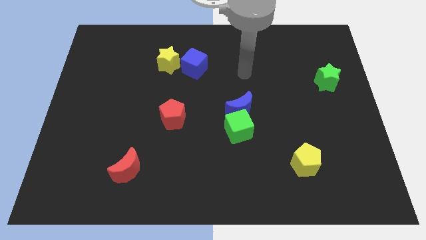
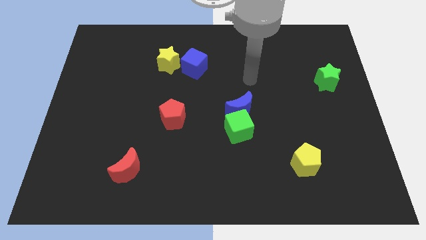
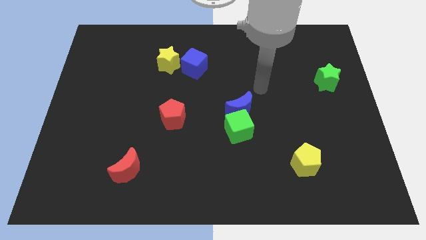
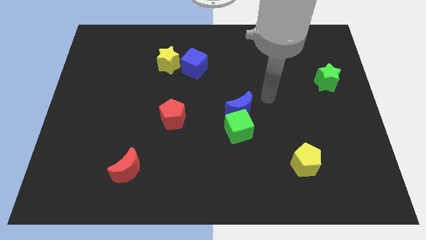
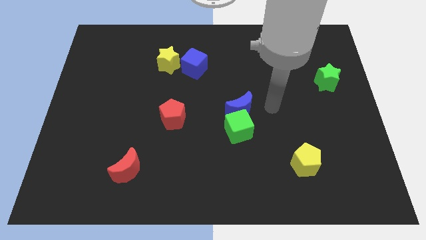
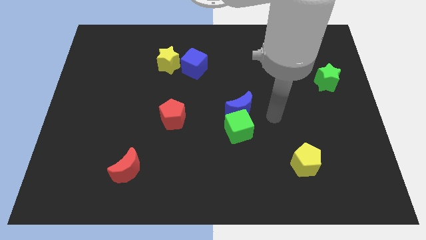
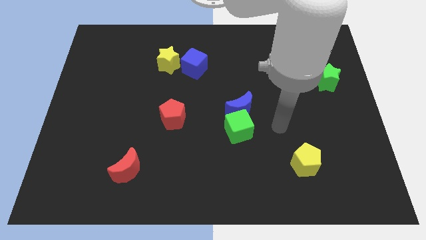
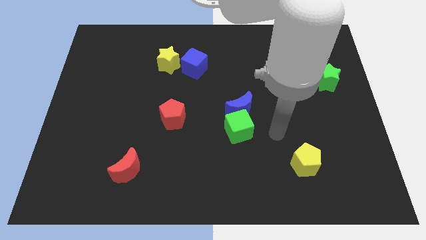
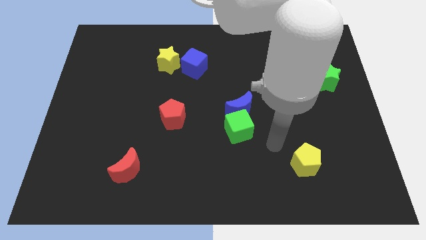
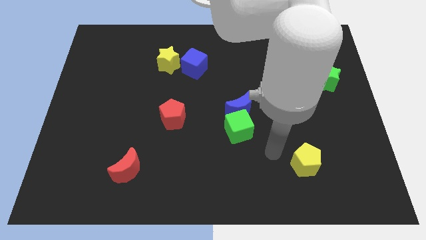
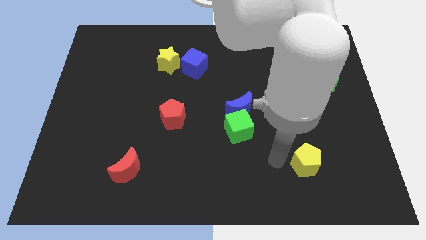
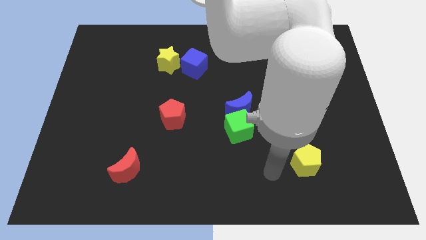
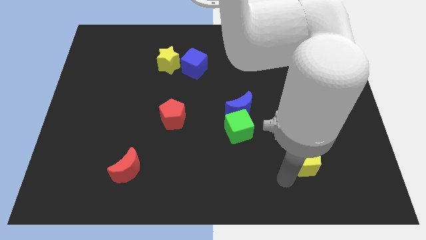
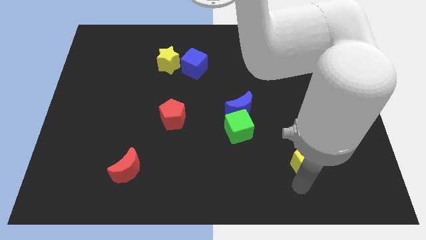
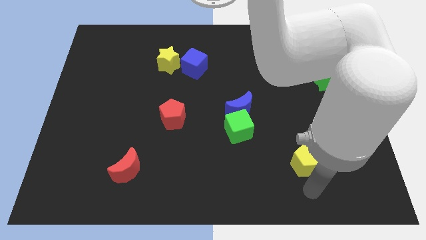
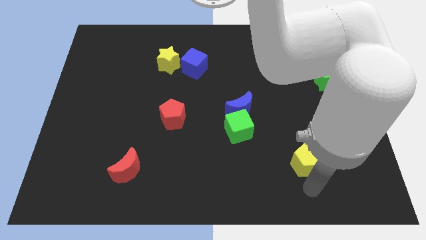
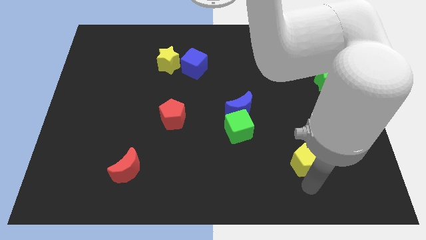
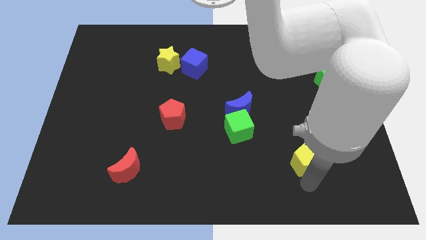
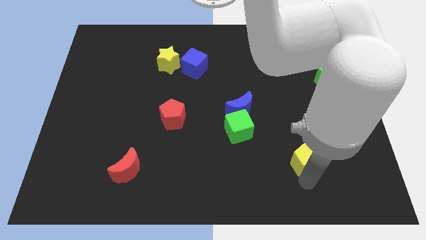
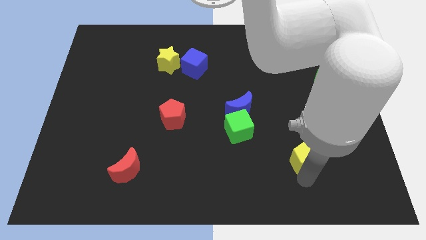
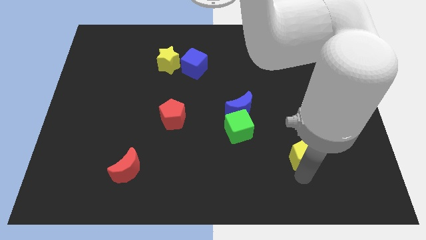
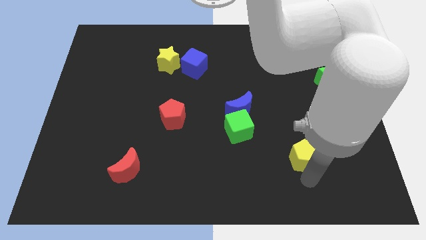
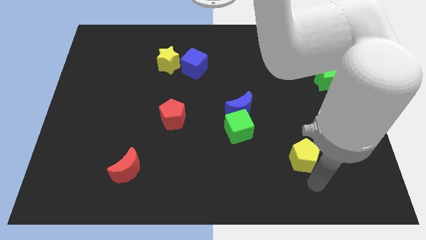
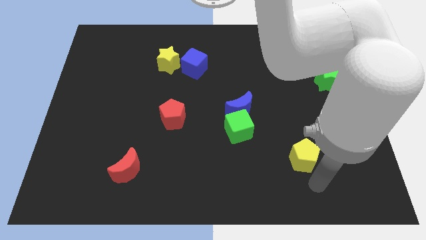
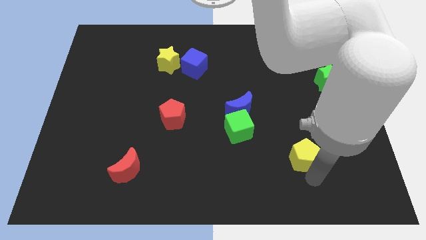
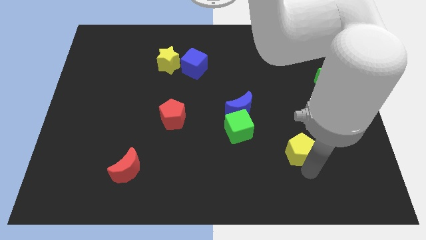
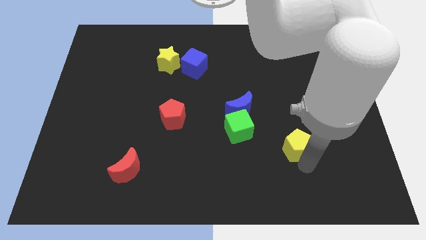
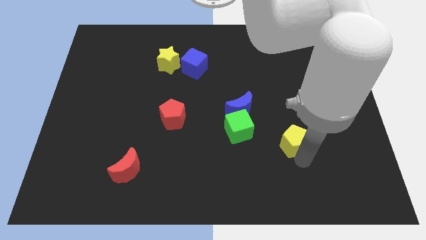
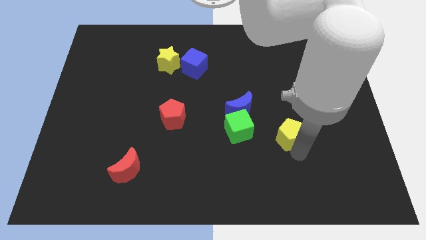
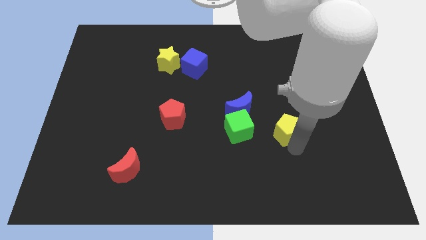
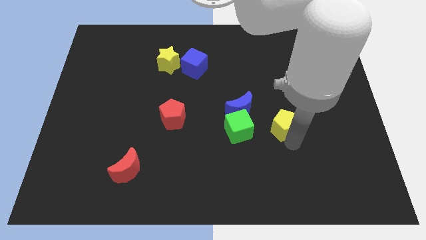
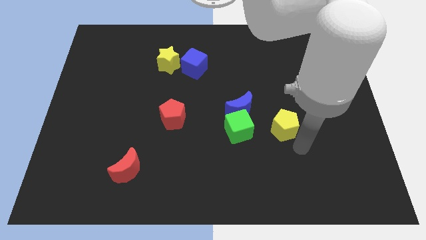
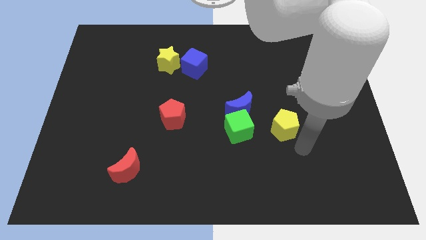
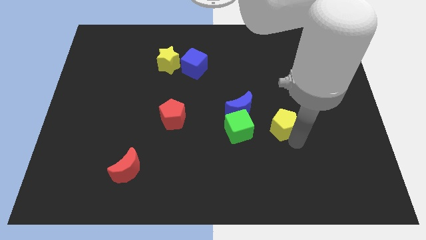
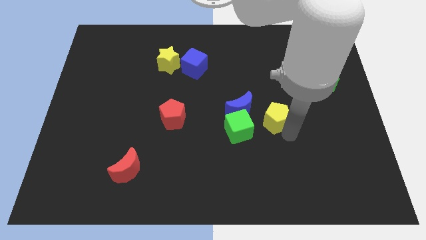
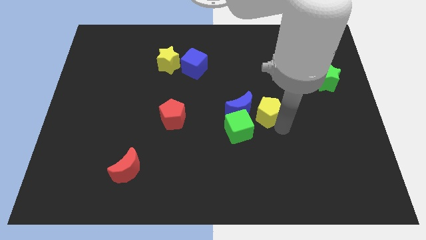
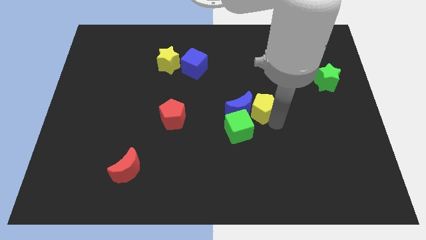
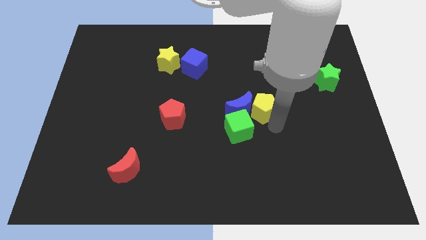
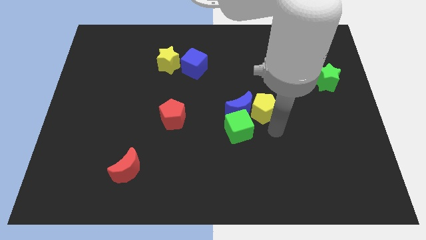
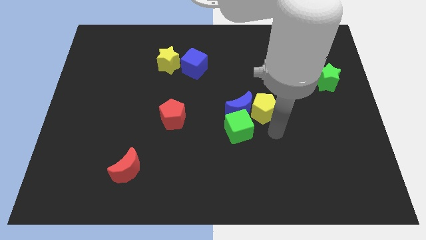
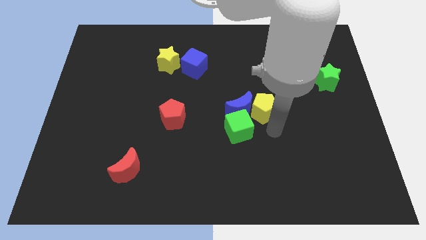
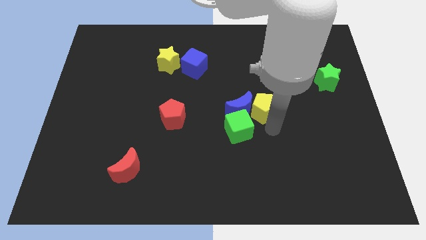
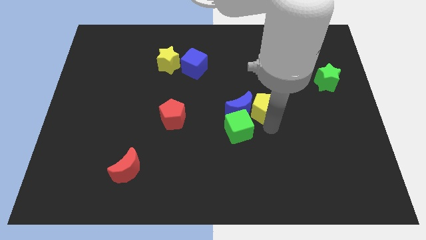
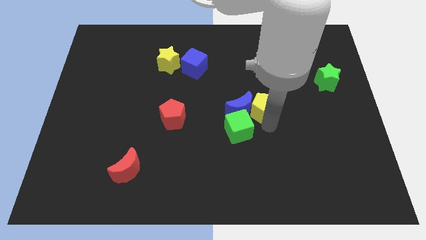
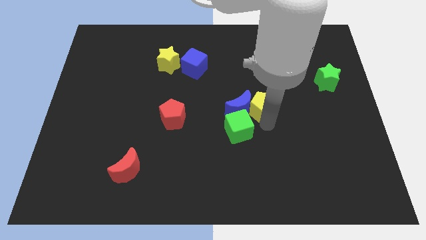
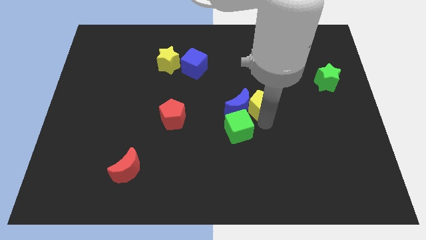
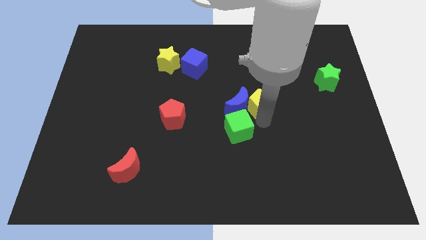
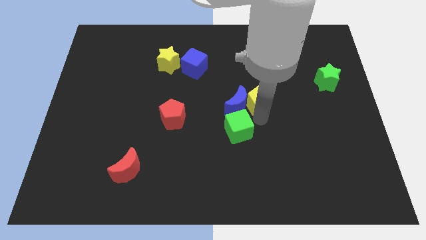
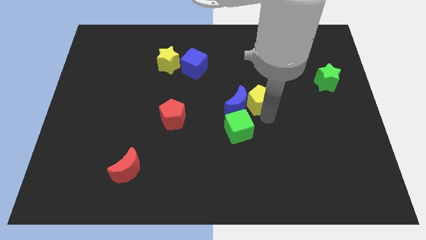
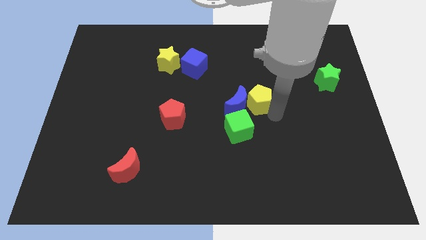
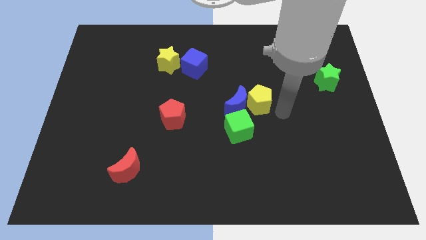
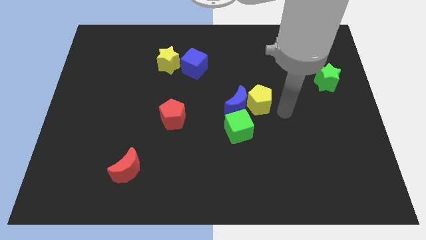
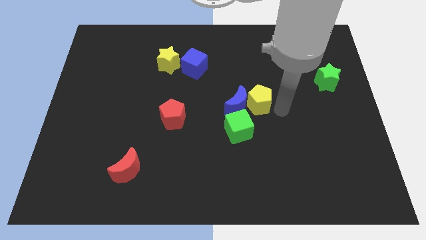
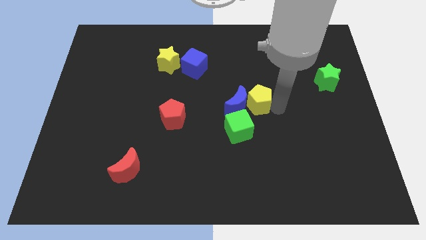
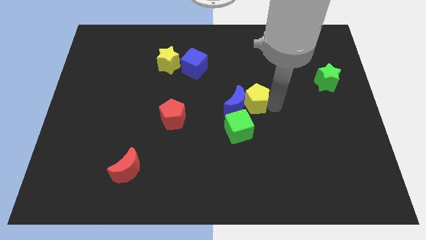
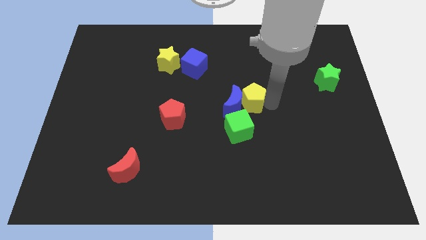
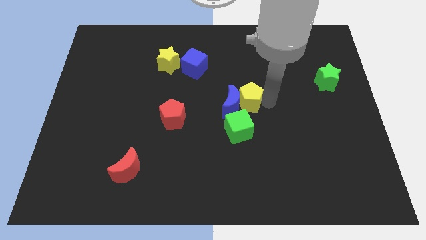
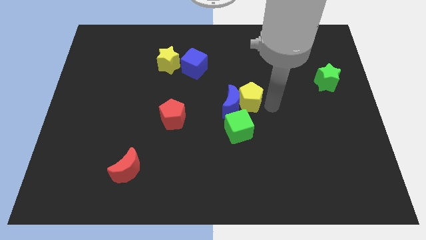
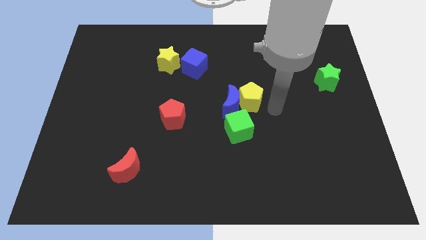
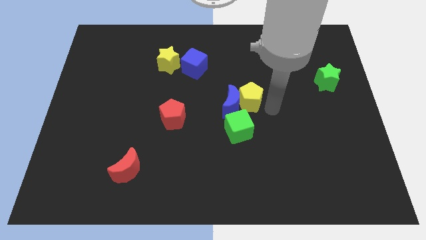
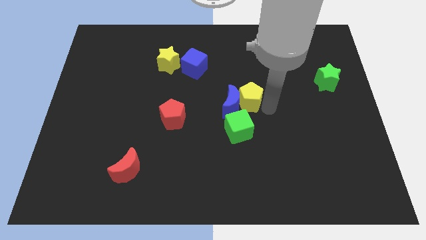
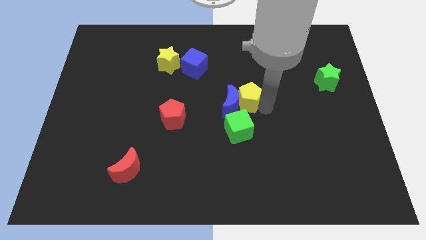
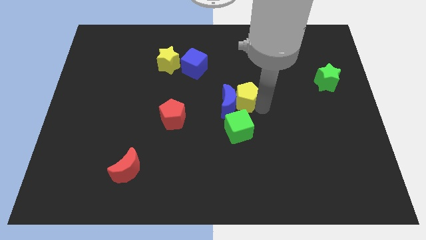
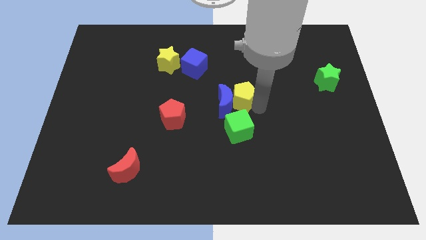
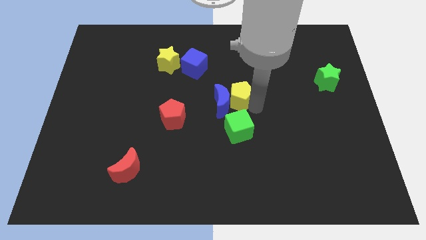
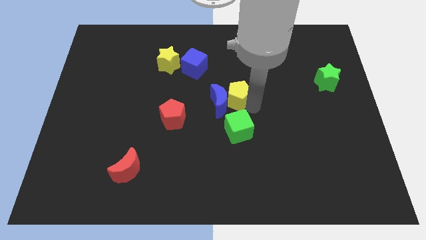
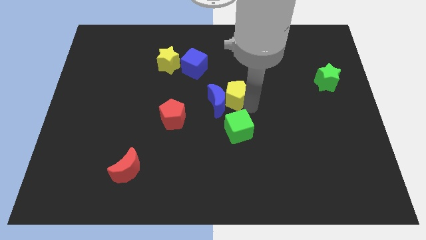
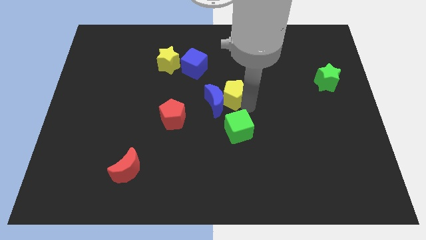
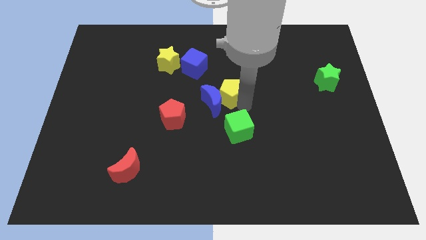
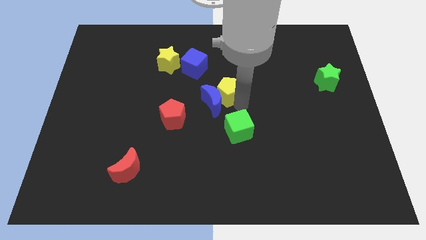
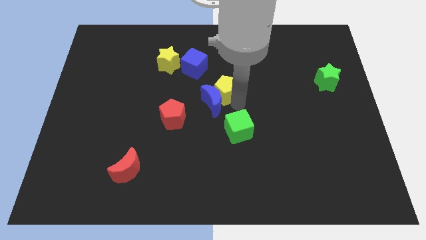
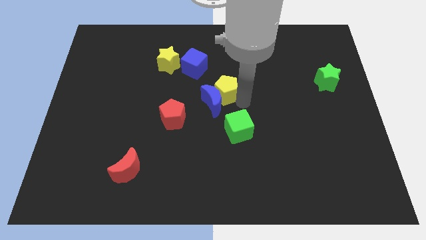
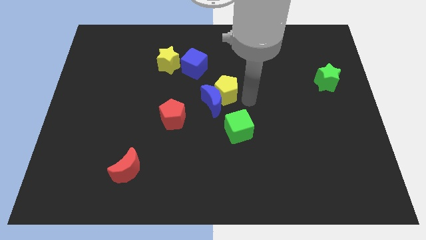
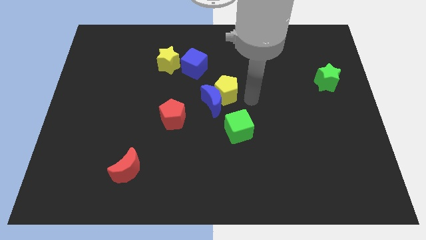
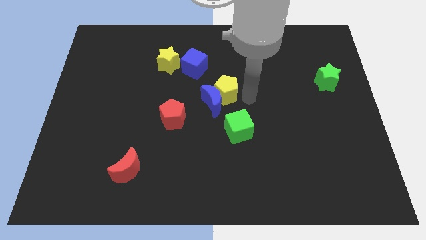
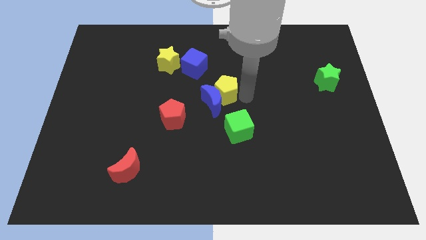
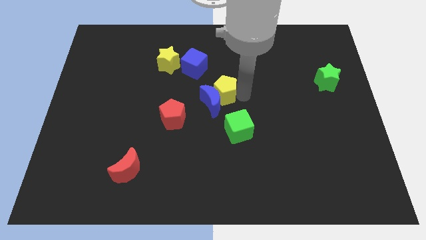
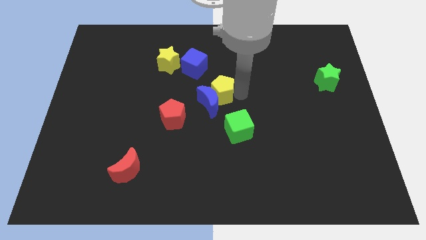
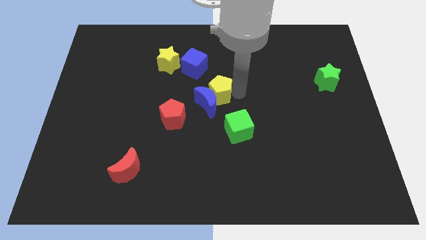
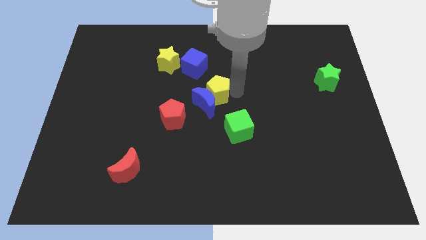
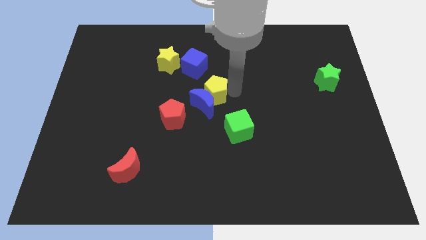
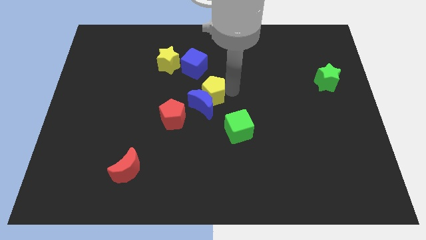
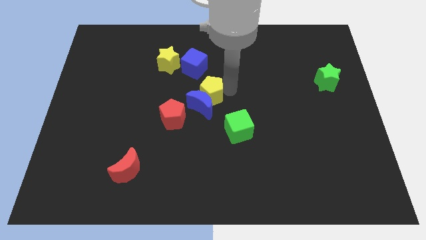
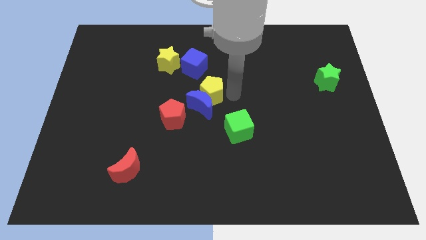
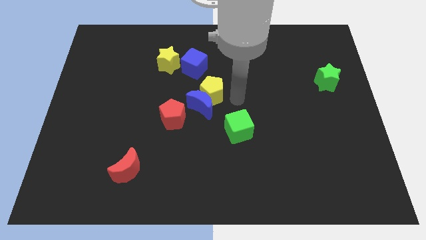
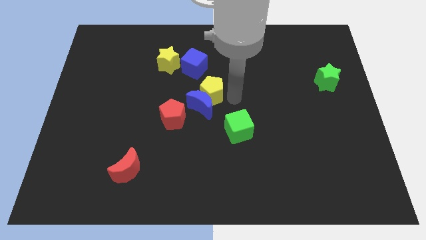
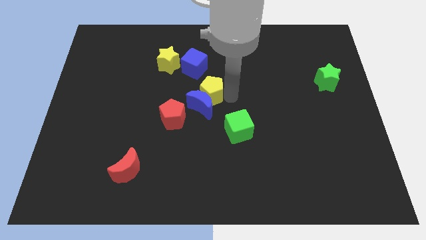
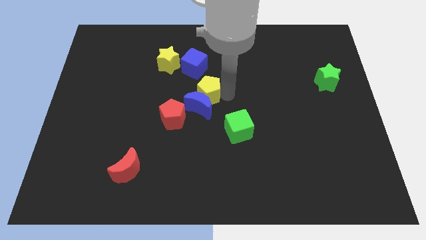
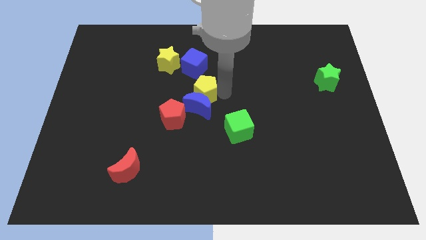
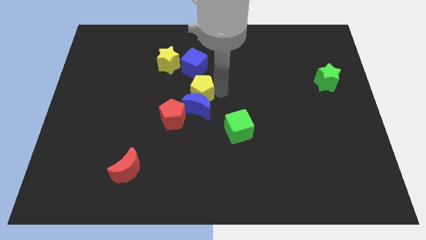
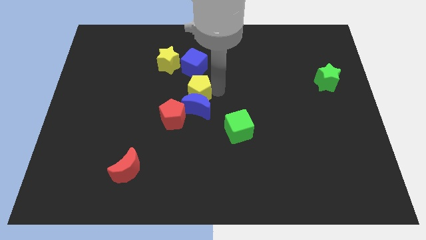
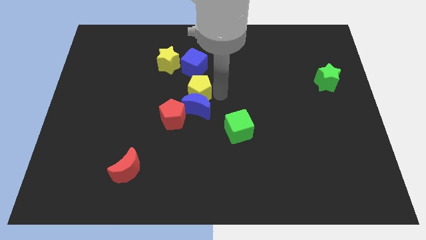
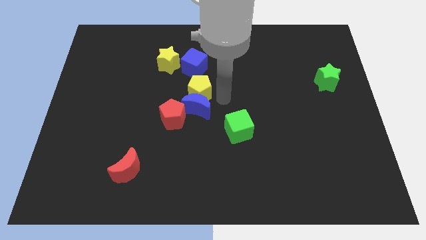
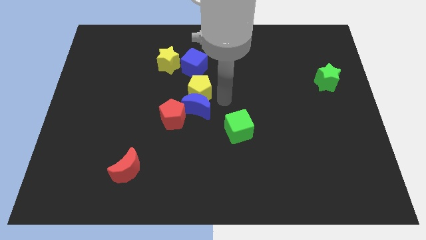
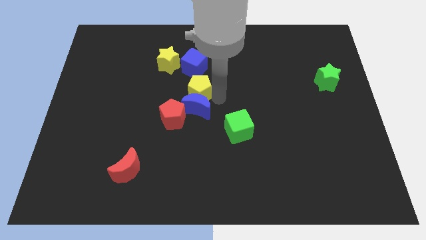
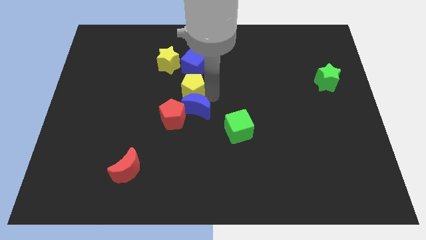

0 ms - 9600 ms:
put the yellow pentagon to the top of the red pentagon
